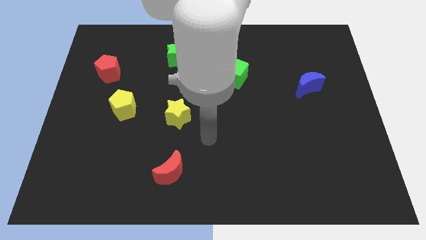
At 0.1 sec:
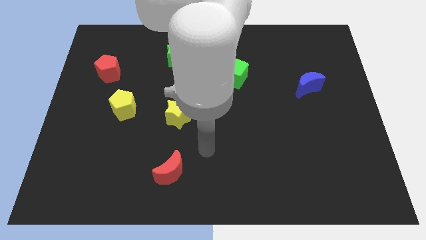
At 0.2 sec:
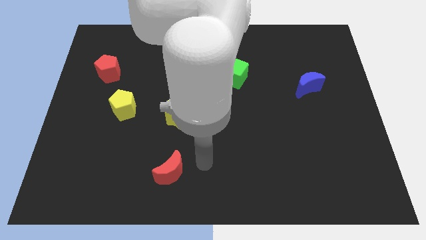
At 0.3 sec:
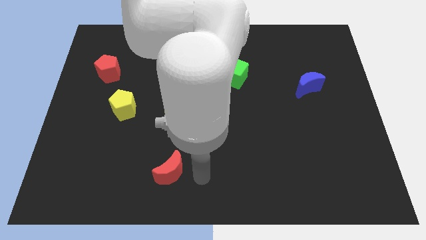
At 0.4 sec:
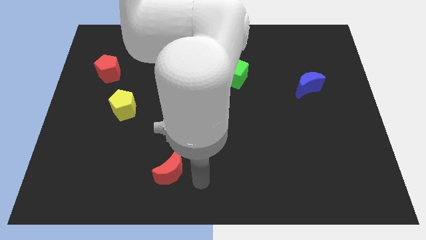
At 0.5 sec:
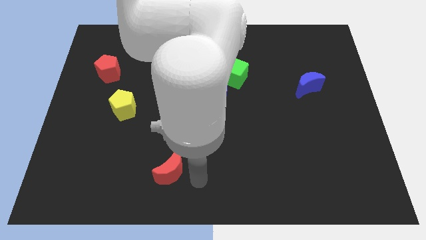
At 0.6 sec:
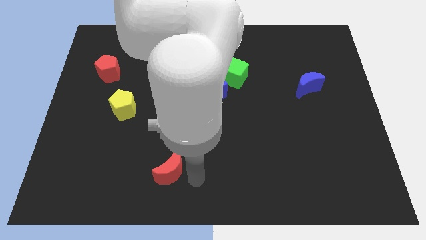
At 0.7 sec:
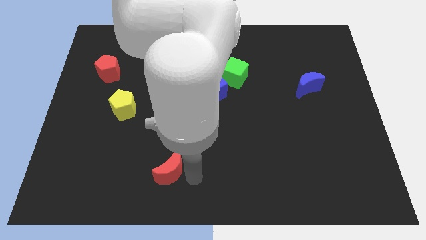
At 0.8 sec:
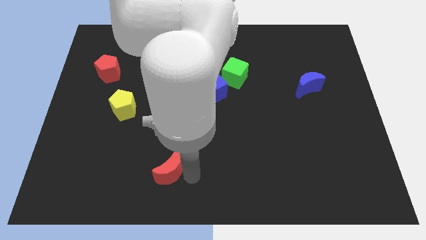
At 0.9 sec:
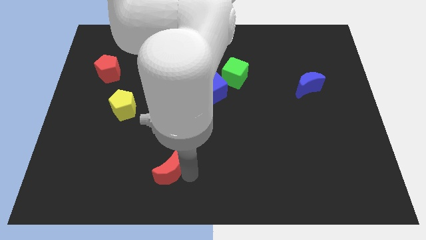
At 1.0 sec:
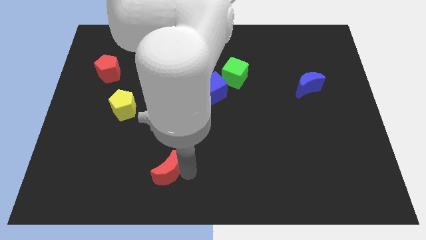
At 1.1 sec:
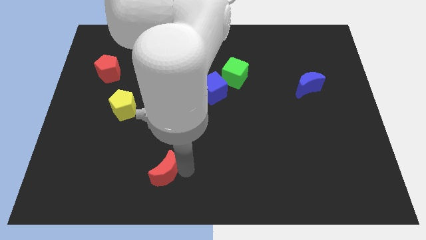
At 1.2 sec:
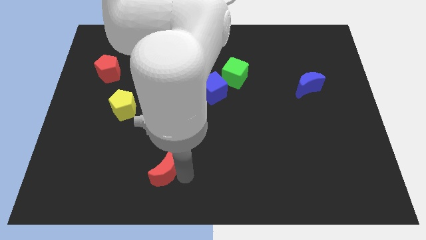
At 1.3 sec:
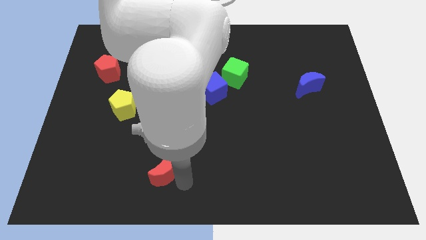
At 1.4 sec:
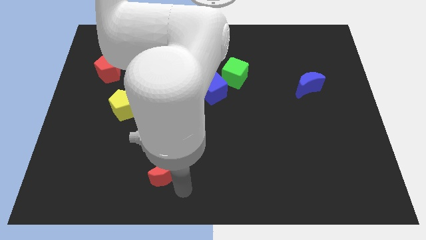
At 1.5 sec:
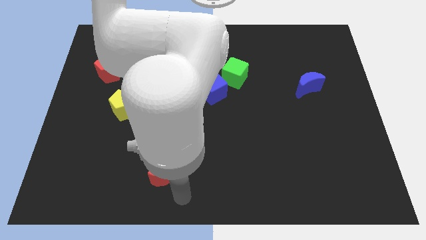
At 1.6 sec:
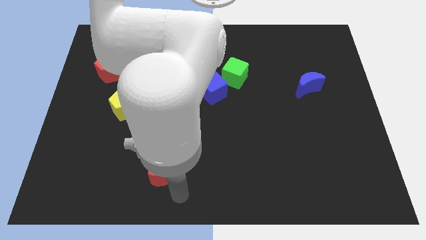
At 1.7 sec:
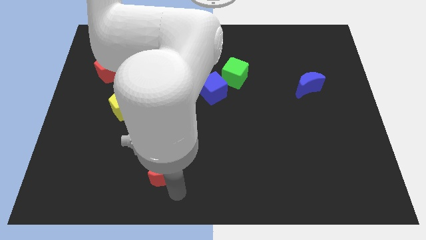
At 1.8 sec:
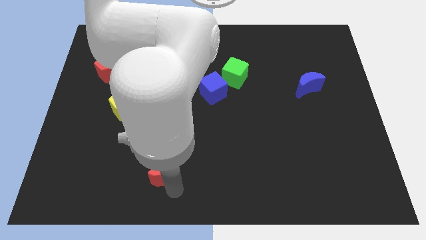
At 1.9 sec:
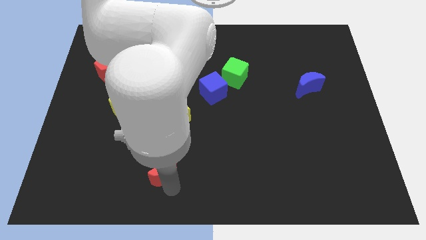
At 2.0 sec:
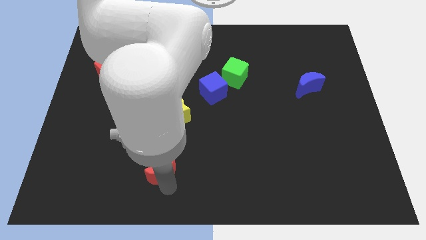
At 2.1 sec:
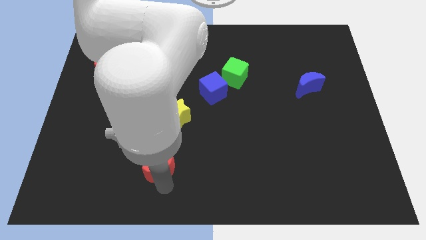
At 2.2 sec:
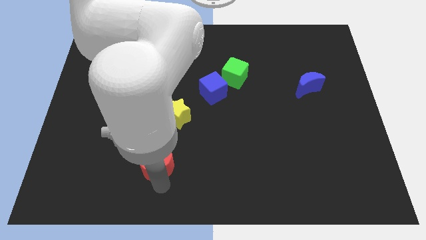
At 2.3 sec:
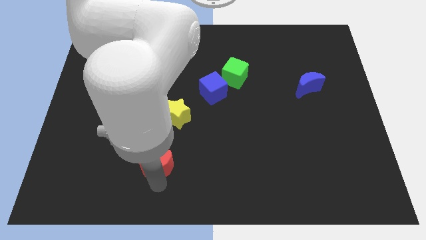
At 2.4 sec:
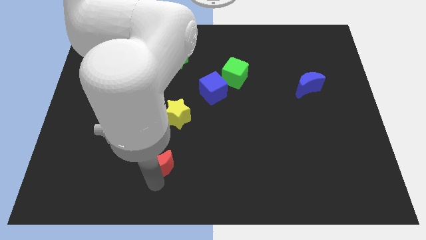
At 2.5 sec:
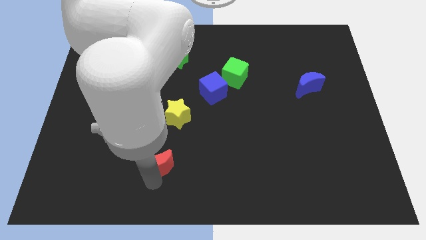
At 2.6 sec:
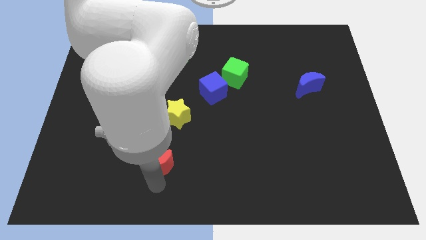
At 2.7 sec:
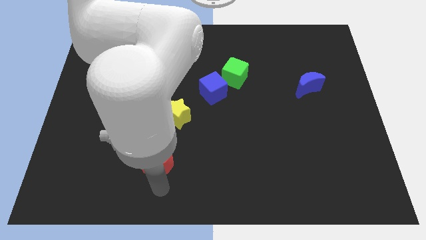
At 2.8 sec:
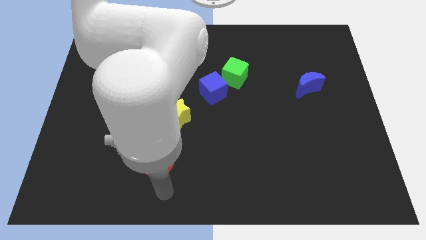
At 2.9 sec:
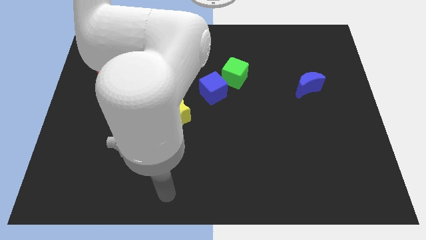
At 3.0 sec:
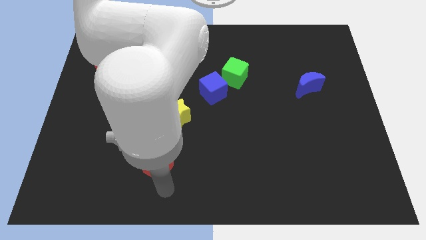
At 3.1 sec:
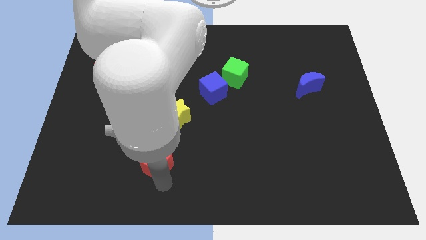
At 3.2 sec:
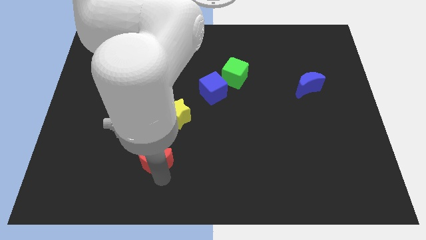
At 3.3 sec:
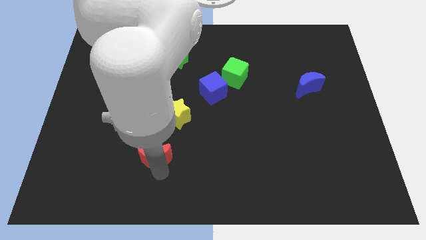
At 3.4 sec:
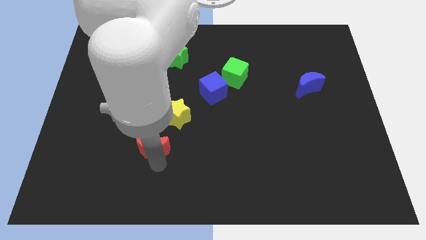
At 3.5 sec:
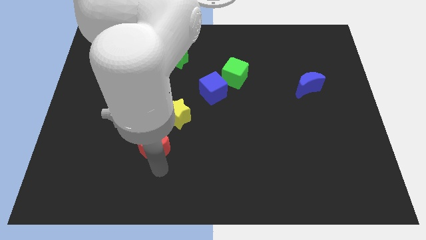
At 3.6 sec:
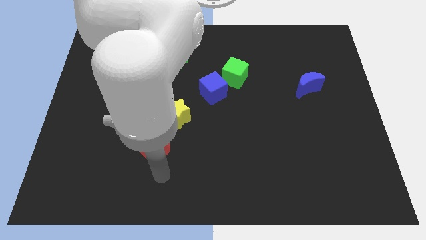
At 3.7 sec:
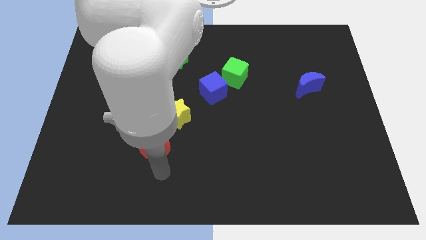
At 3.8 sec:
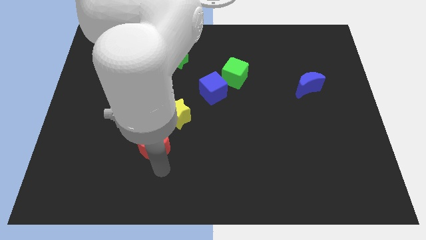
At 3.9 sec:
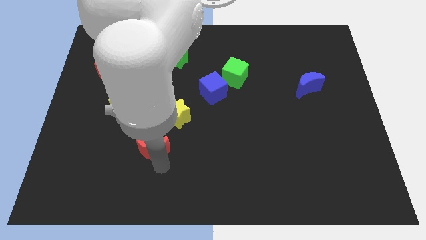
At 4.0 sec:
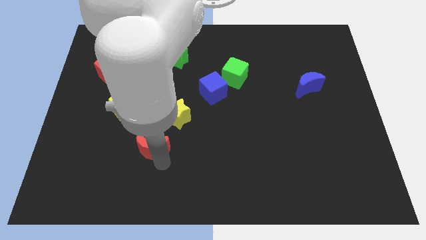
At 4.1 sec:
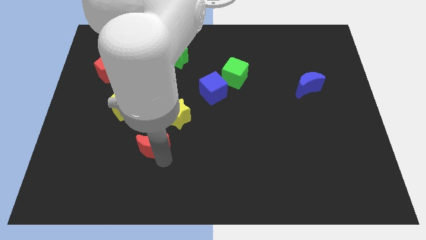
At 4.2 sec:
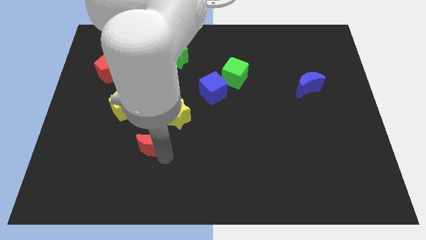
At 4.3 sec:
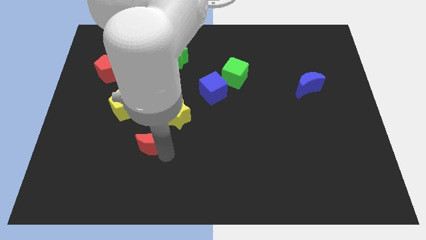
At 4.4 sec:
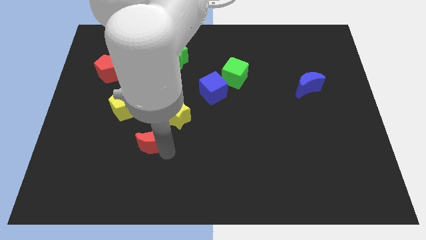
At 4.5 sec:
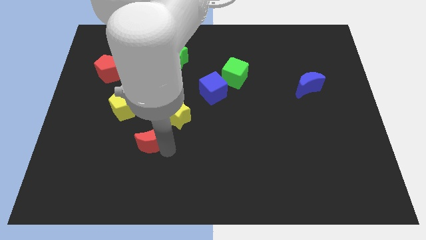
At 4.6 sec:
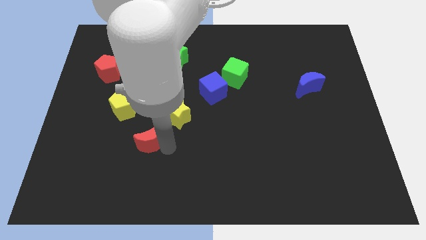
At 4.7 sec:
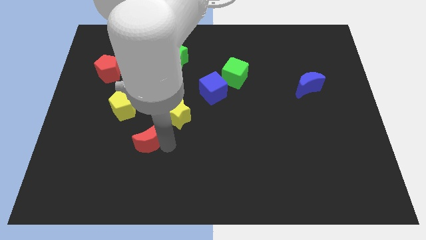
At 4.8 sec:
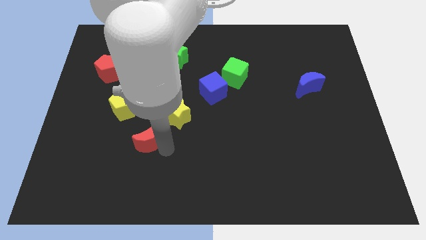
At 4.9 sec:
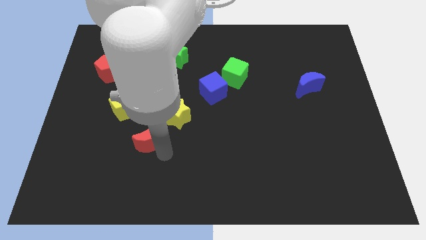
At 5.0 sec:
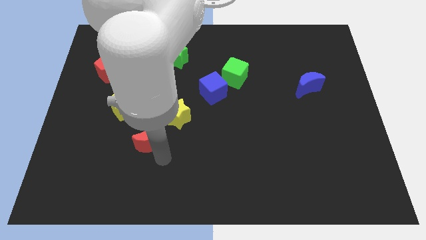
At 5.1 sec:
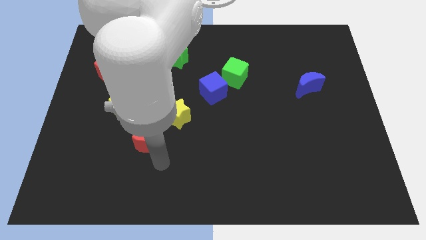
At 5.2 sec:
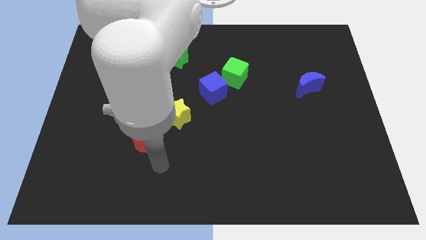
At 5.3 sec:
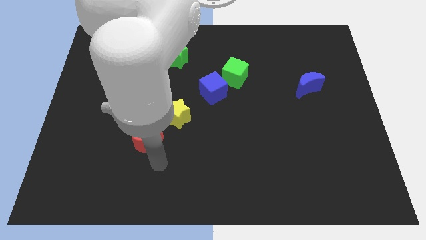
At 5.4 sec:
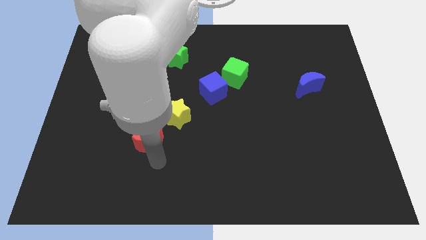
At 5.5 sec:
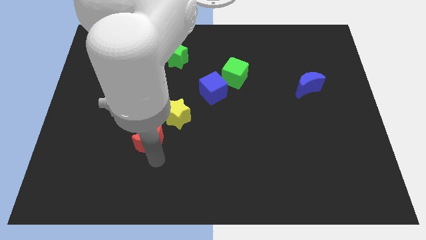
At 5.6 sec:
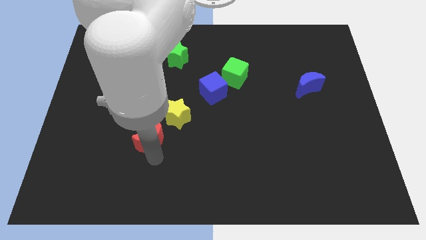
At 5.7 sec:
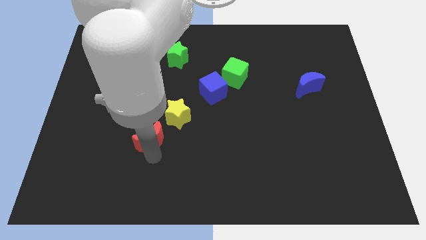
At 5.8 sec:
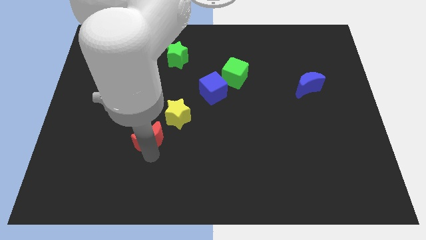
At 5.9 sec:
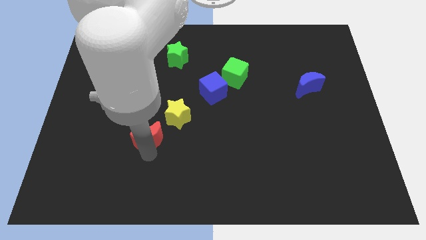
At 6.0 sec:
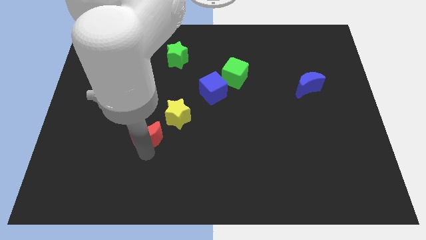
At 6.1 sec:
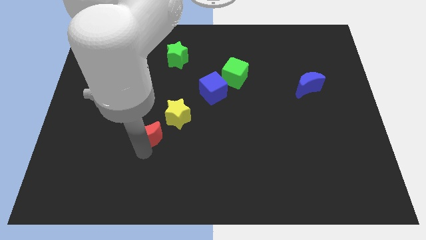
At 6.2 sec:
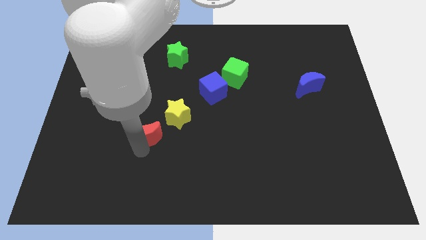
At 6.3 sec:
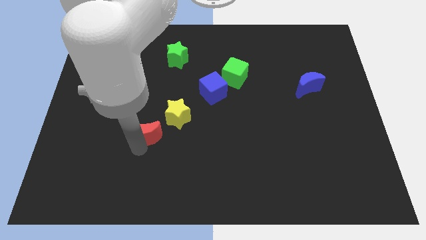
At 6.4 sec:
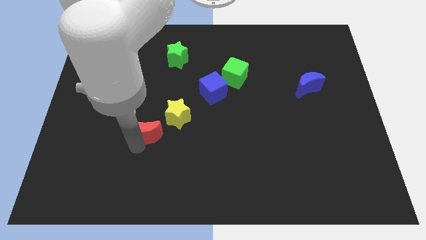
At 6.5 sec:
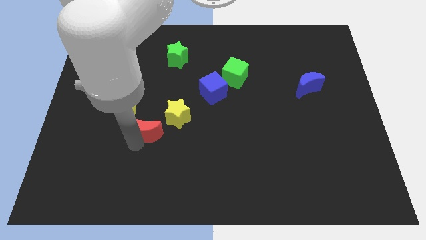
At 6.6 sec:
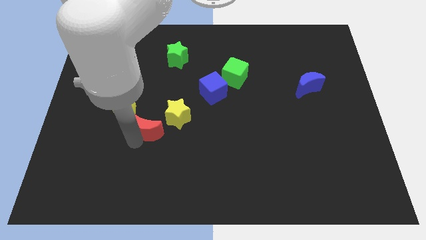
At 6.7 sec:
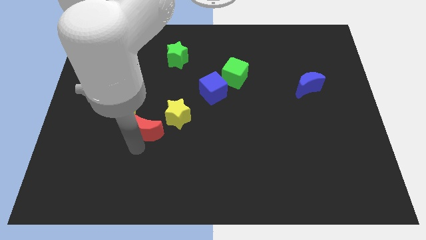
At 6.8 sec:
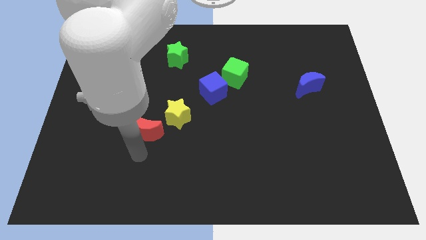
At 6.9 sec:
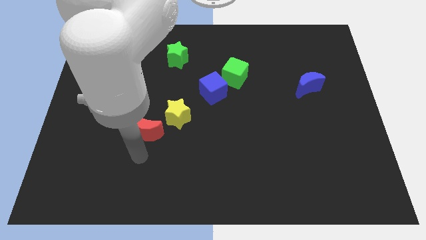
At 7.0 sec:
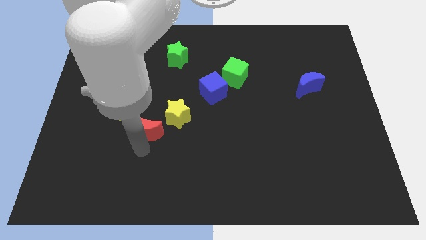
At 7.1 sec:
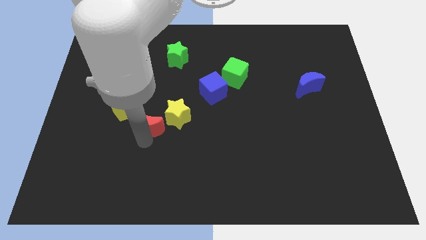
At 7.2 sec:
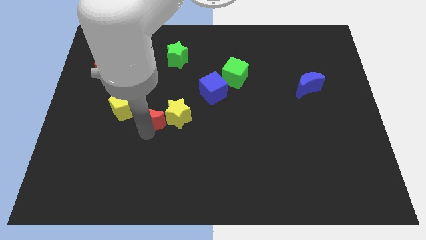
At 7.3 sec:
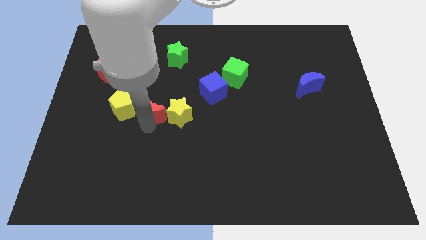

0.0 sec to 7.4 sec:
push the red moon diagonally up and to the left of the yellow star

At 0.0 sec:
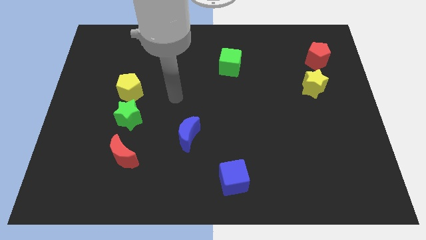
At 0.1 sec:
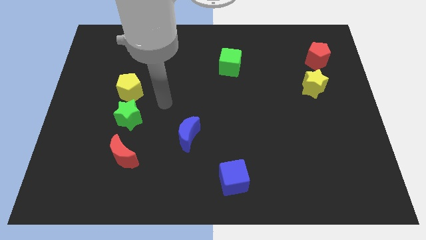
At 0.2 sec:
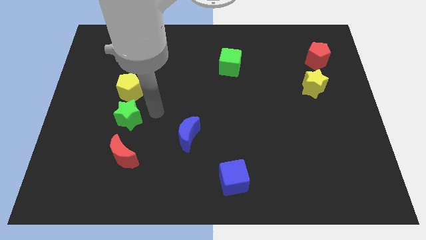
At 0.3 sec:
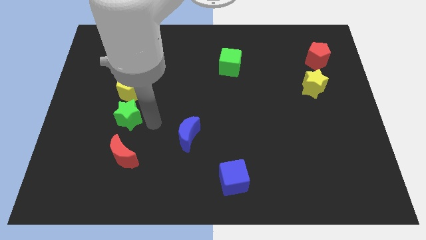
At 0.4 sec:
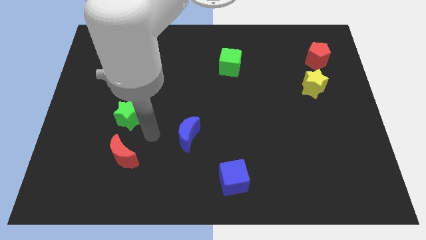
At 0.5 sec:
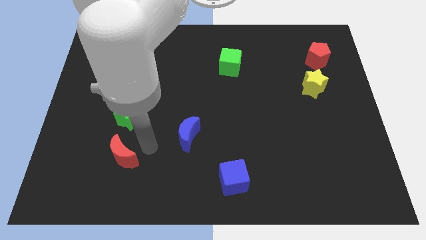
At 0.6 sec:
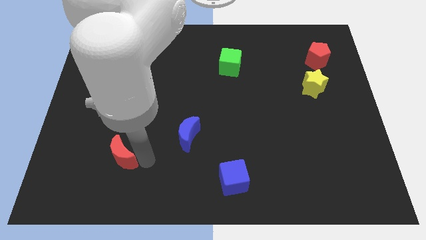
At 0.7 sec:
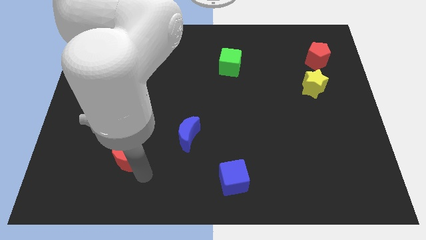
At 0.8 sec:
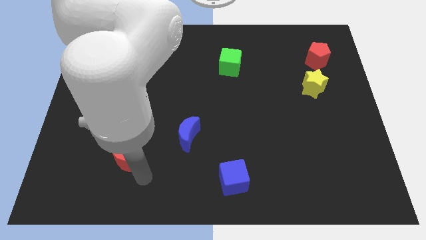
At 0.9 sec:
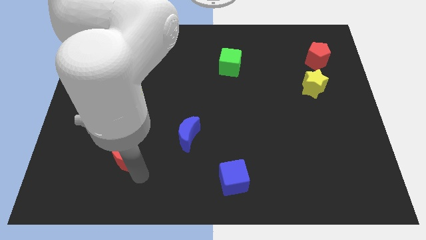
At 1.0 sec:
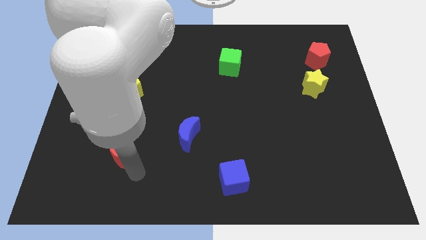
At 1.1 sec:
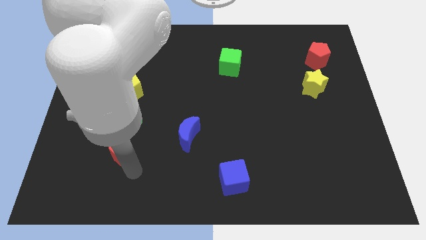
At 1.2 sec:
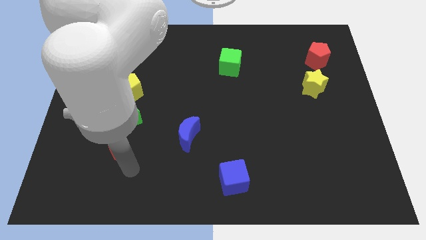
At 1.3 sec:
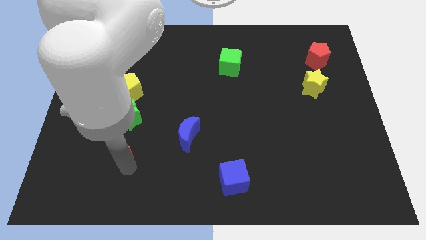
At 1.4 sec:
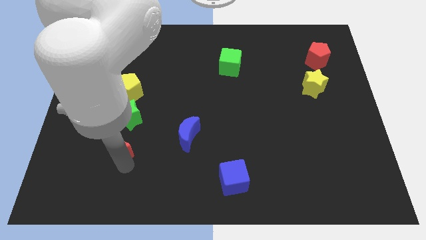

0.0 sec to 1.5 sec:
move the red moon to the bottom left side of the green star
